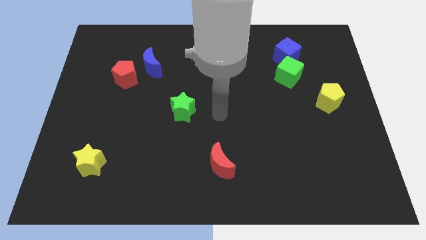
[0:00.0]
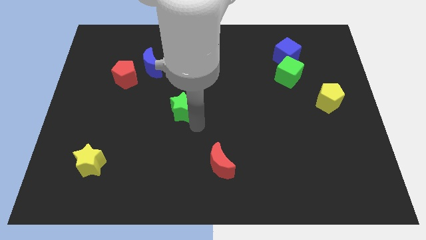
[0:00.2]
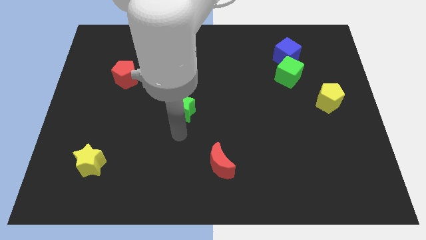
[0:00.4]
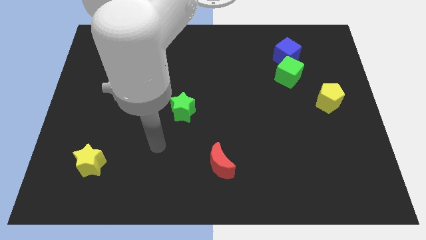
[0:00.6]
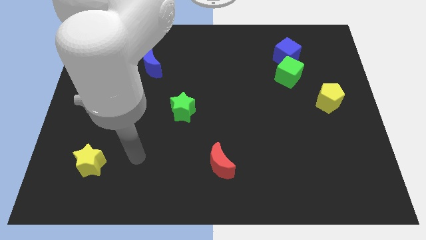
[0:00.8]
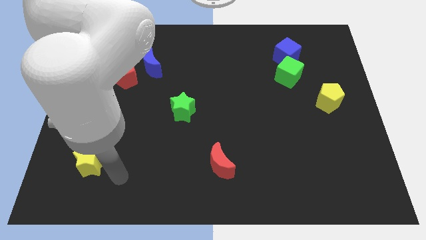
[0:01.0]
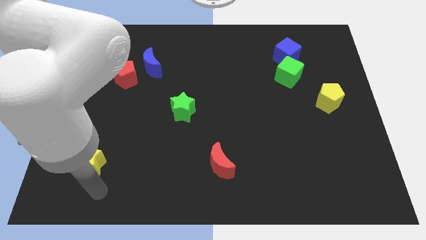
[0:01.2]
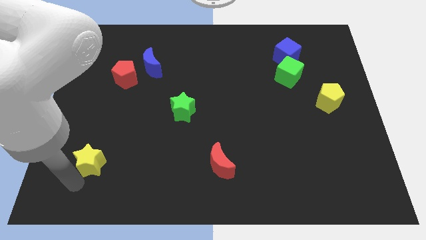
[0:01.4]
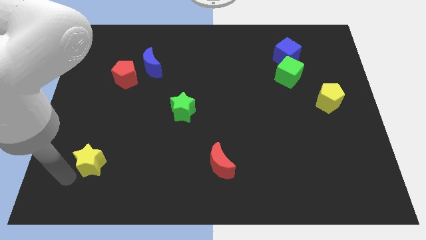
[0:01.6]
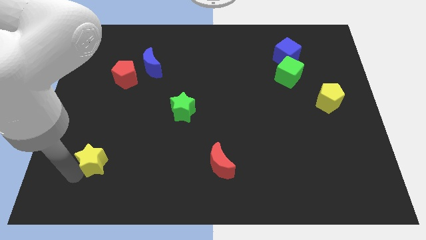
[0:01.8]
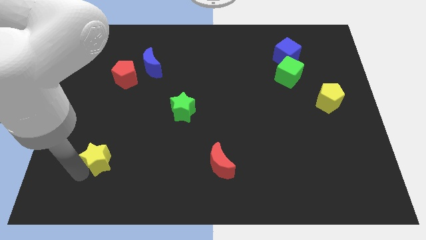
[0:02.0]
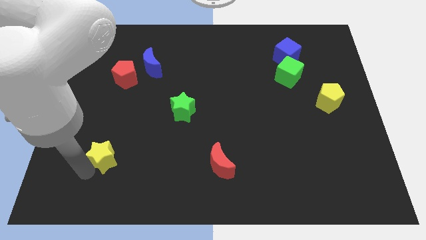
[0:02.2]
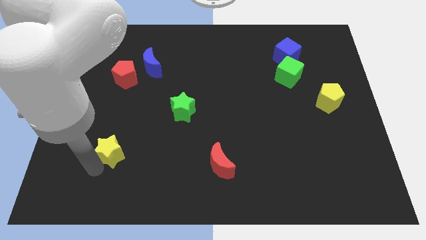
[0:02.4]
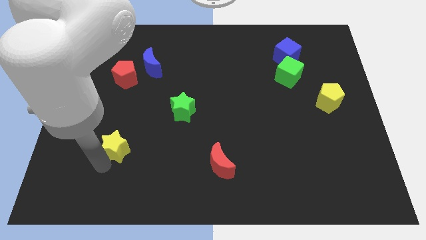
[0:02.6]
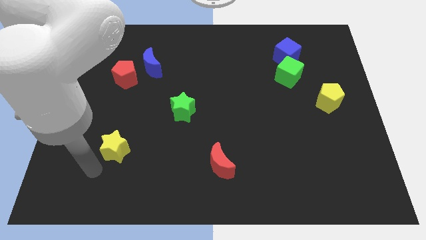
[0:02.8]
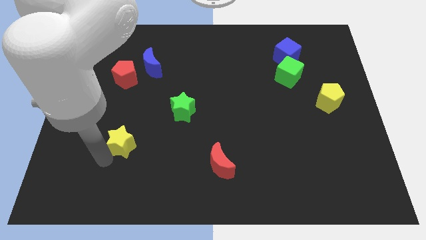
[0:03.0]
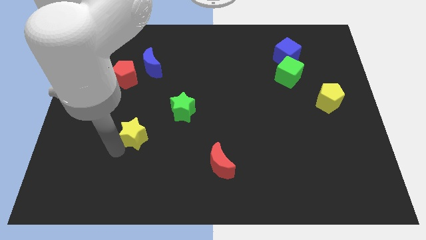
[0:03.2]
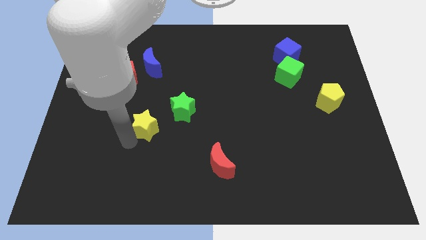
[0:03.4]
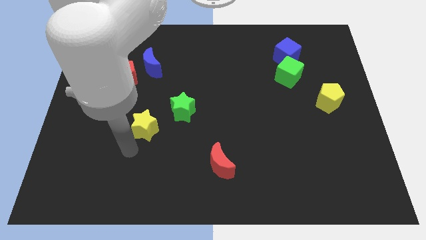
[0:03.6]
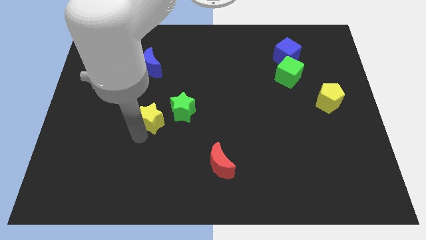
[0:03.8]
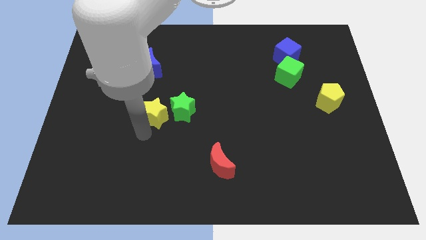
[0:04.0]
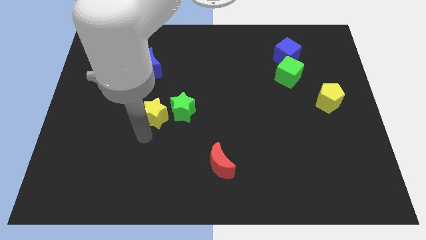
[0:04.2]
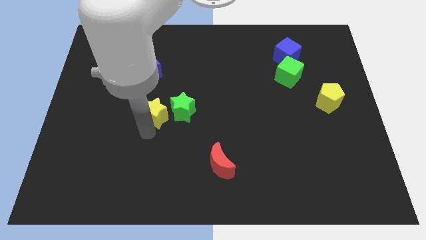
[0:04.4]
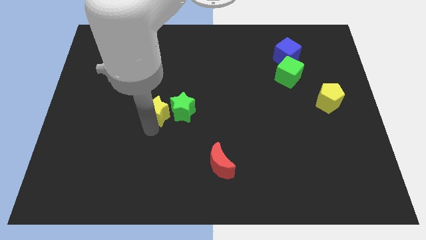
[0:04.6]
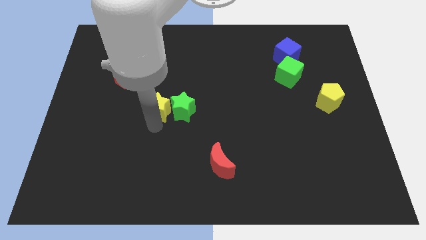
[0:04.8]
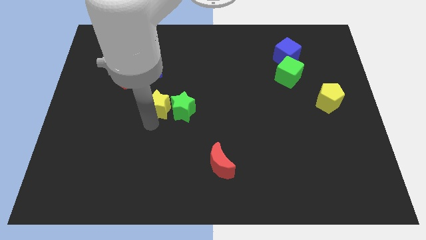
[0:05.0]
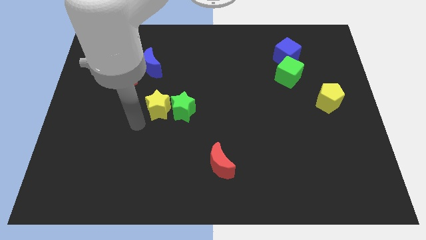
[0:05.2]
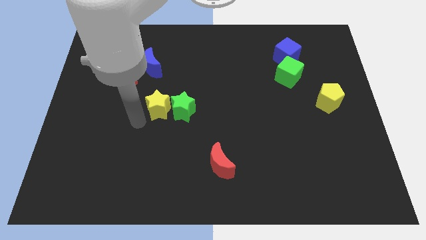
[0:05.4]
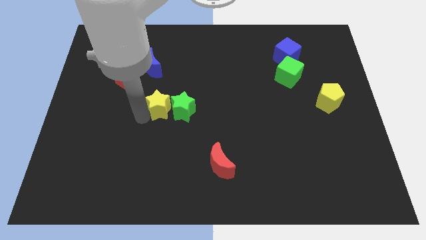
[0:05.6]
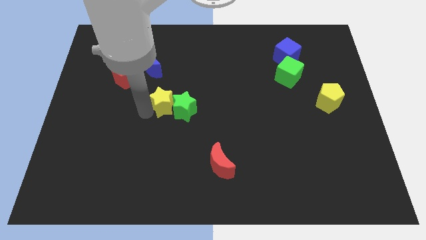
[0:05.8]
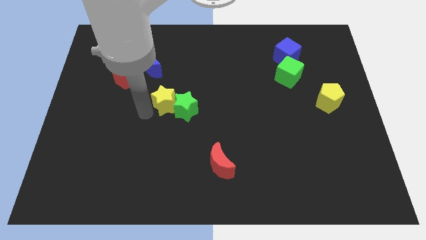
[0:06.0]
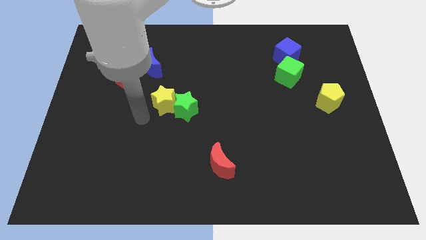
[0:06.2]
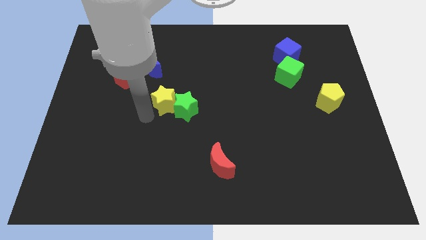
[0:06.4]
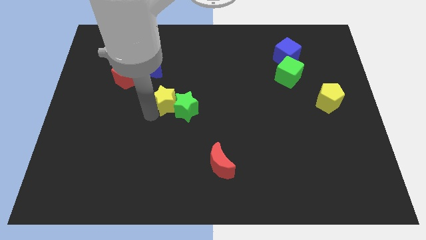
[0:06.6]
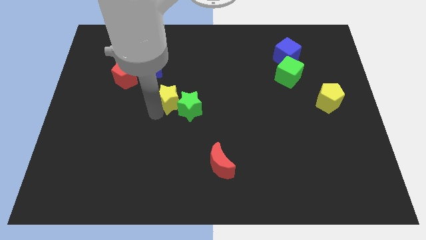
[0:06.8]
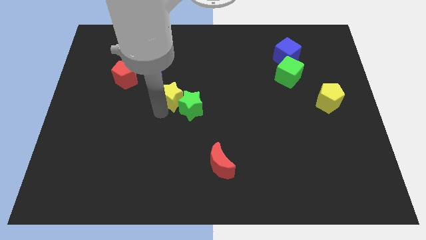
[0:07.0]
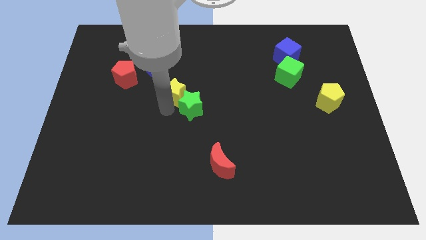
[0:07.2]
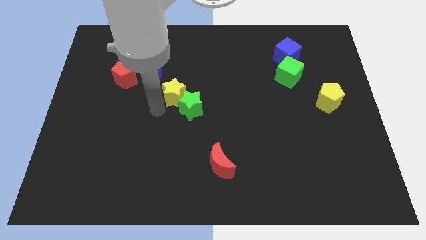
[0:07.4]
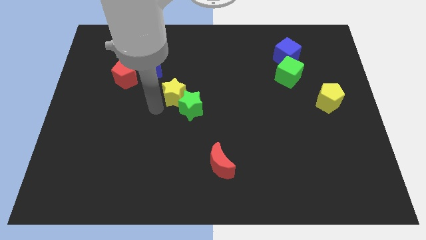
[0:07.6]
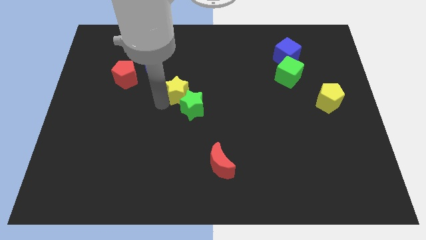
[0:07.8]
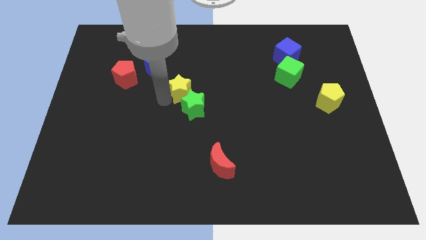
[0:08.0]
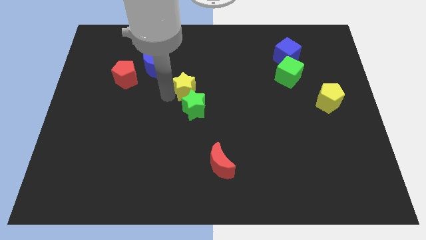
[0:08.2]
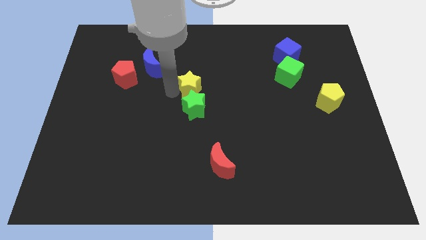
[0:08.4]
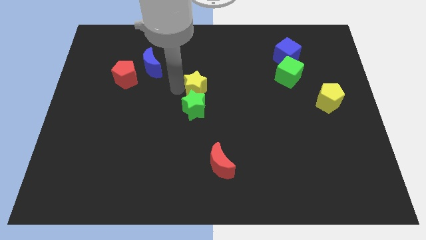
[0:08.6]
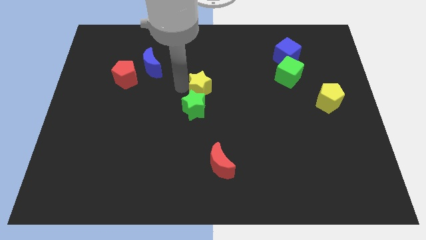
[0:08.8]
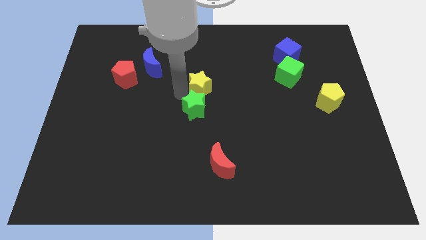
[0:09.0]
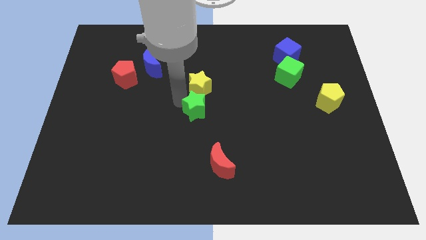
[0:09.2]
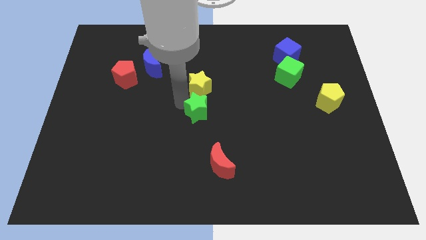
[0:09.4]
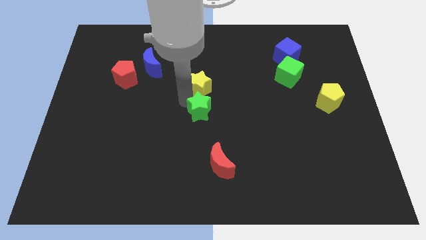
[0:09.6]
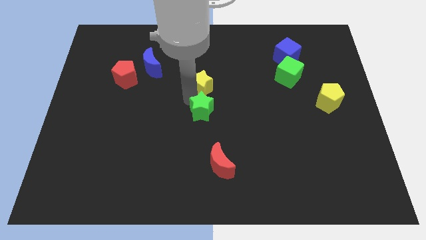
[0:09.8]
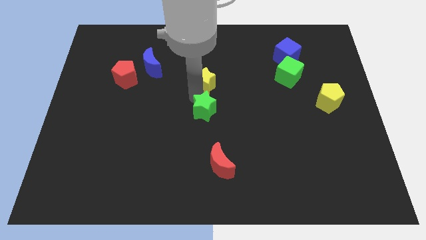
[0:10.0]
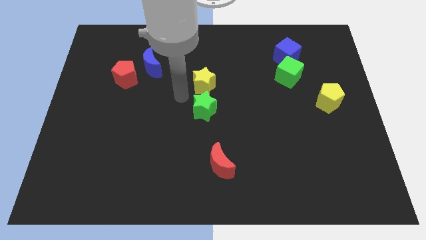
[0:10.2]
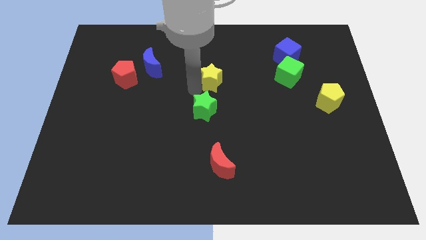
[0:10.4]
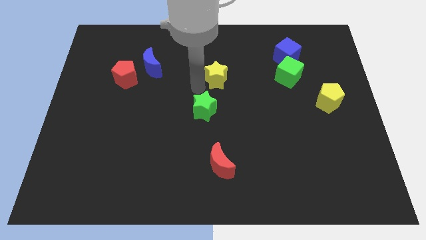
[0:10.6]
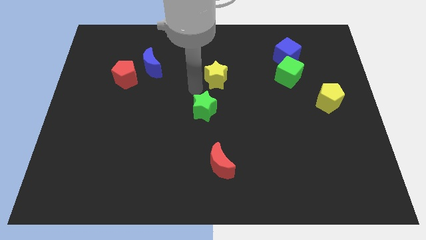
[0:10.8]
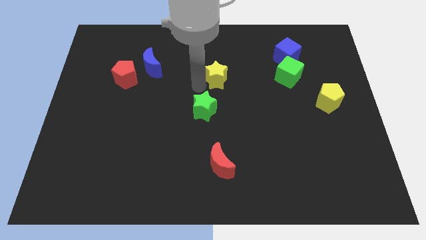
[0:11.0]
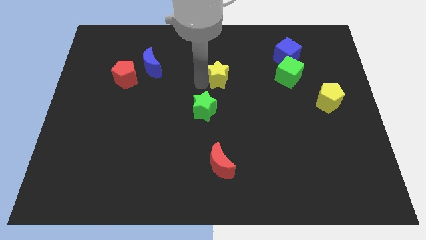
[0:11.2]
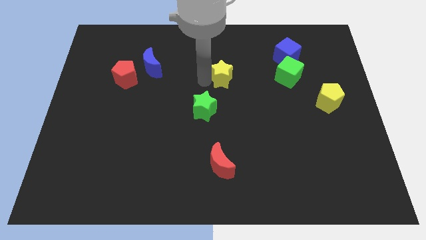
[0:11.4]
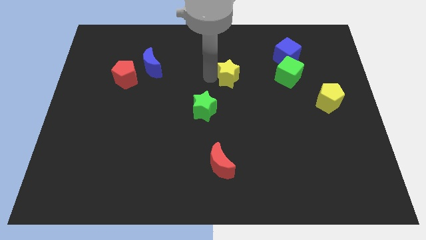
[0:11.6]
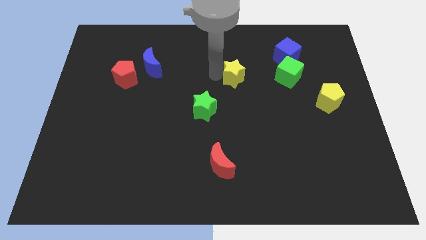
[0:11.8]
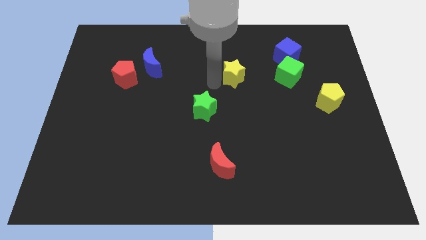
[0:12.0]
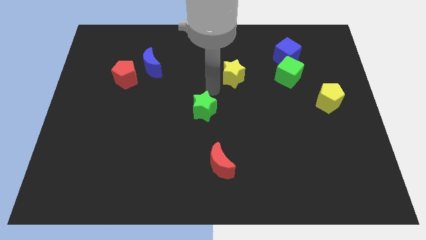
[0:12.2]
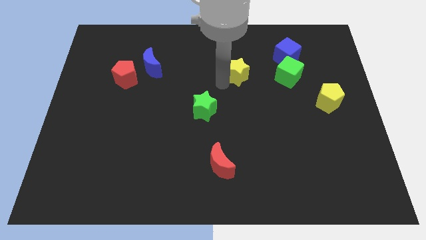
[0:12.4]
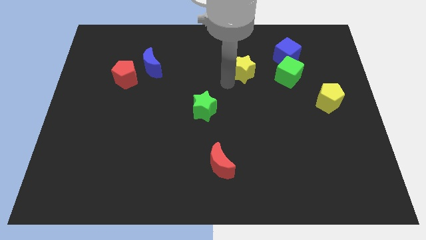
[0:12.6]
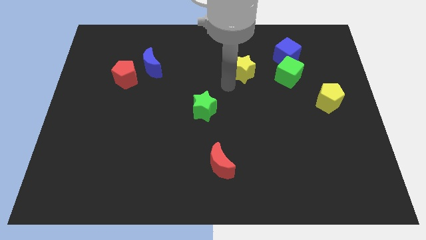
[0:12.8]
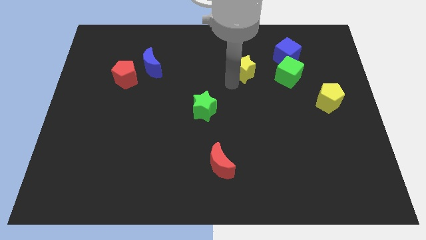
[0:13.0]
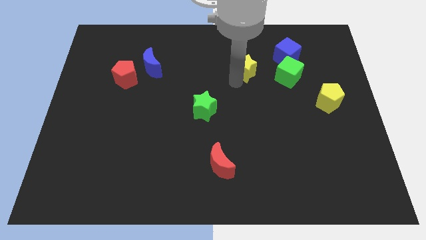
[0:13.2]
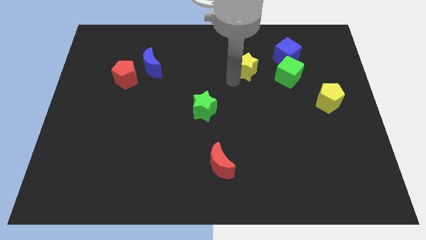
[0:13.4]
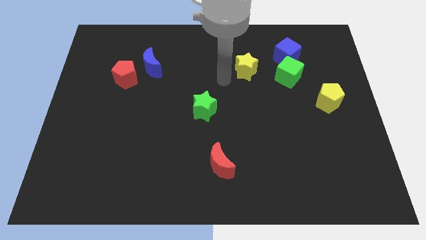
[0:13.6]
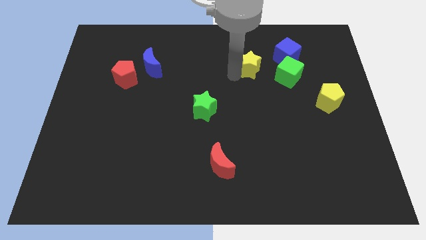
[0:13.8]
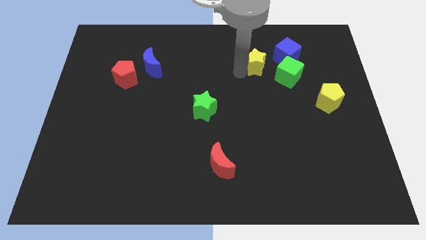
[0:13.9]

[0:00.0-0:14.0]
push the yellow star diagonally up and to the left of the green cube
